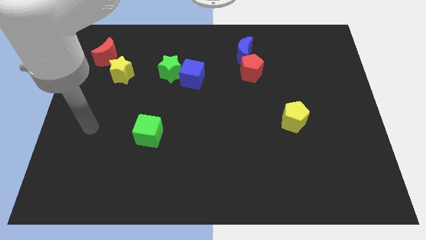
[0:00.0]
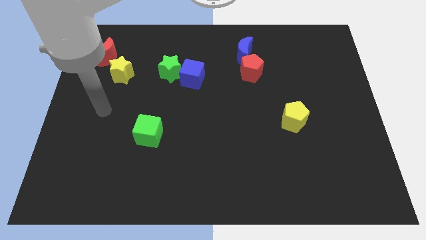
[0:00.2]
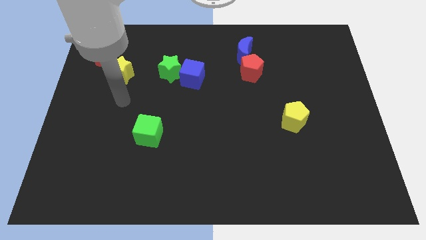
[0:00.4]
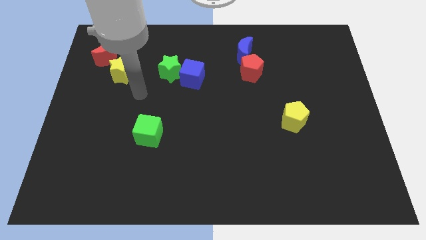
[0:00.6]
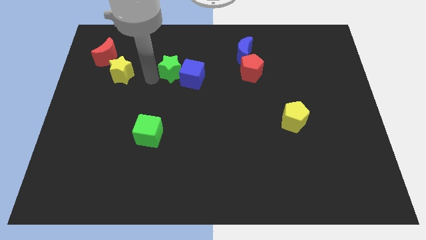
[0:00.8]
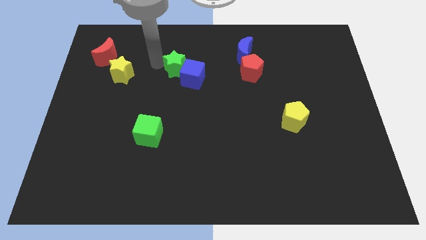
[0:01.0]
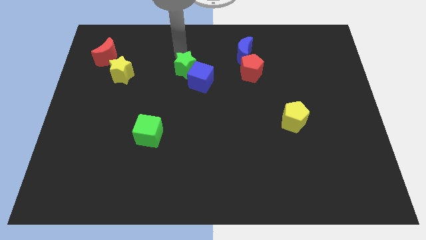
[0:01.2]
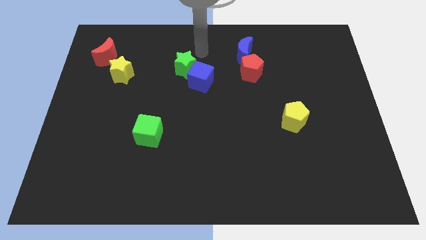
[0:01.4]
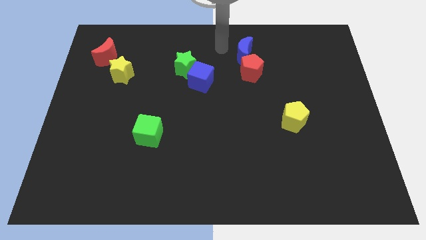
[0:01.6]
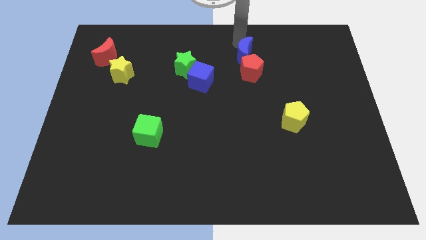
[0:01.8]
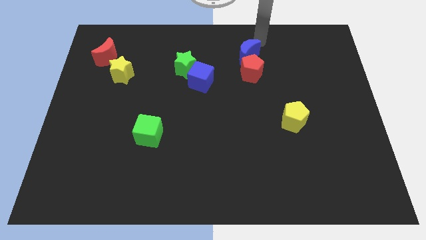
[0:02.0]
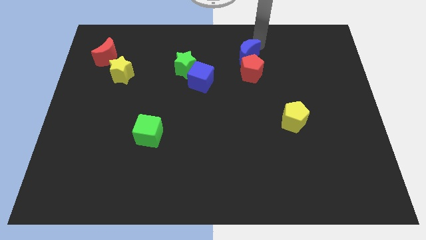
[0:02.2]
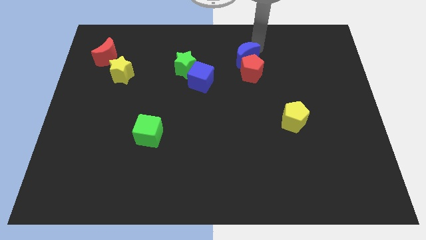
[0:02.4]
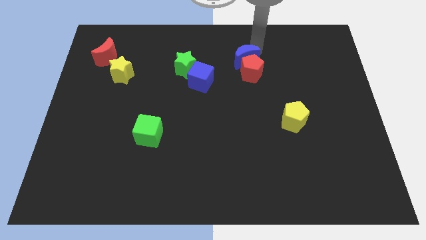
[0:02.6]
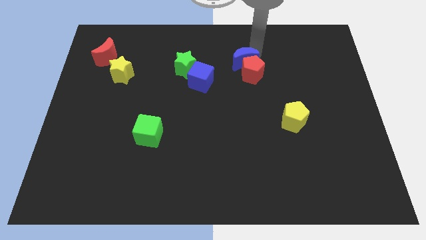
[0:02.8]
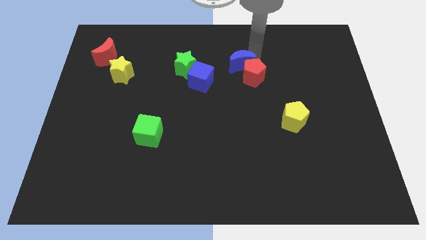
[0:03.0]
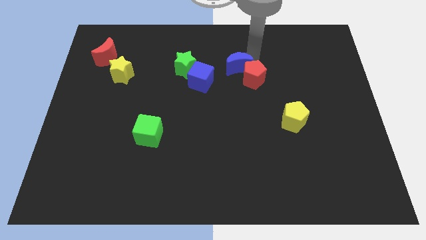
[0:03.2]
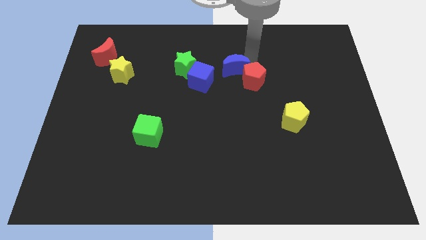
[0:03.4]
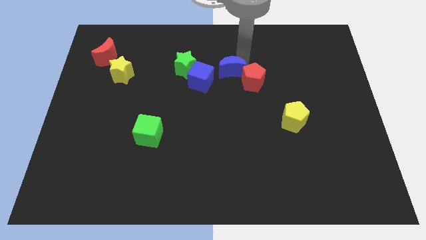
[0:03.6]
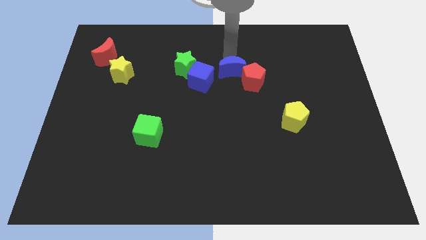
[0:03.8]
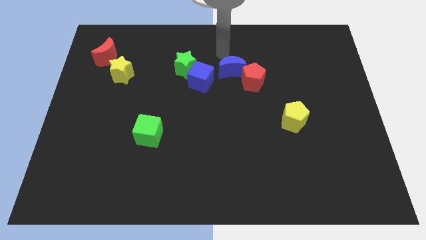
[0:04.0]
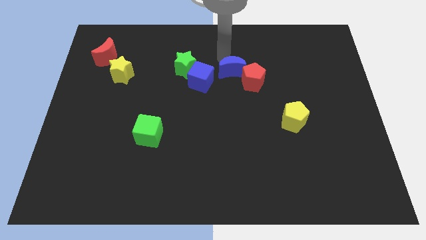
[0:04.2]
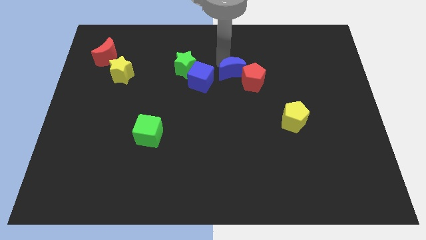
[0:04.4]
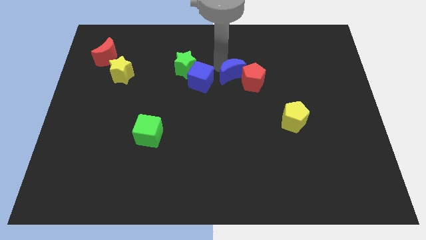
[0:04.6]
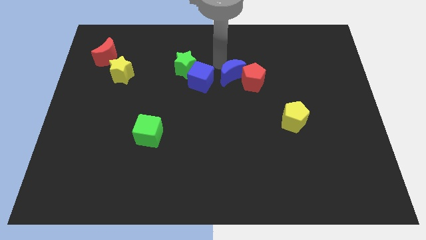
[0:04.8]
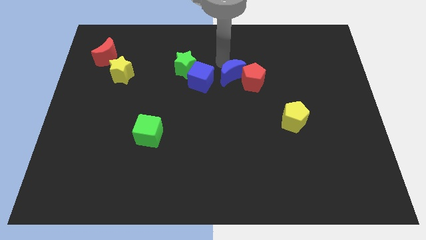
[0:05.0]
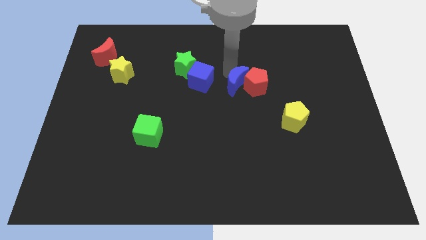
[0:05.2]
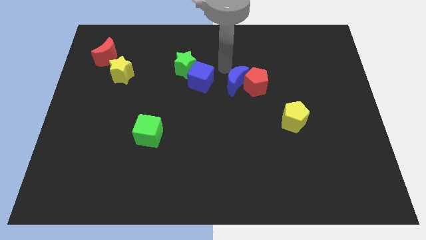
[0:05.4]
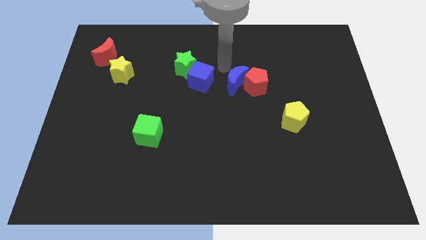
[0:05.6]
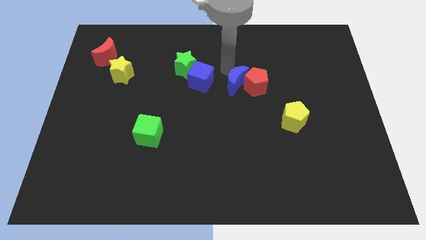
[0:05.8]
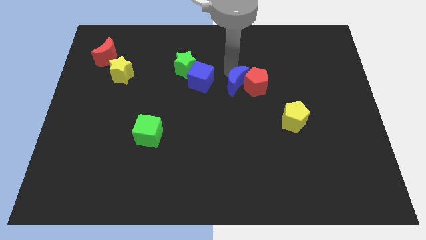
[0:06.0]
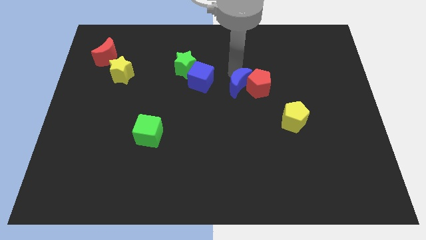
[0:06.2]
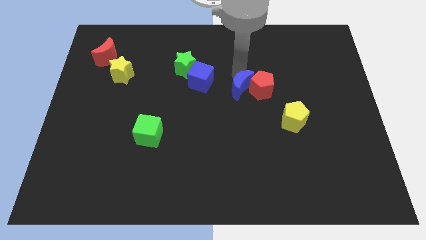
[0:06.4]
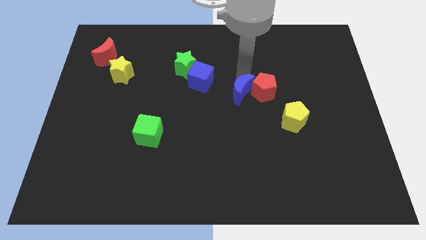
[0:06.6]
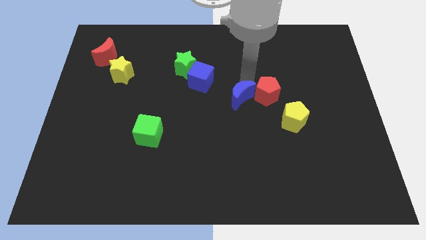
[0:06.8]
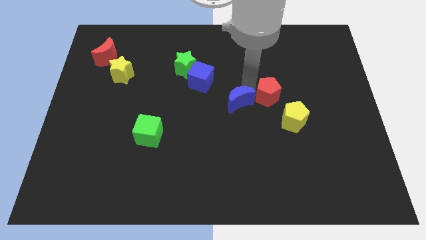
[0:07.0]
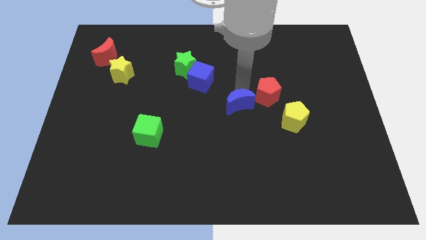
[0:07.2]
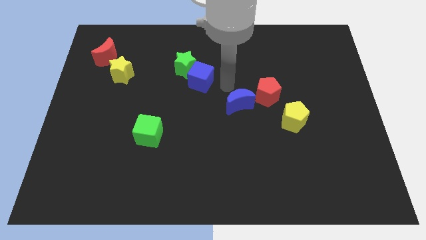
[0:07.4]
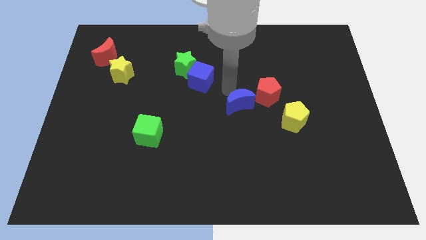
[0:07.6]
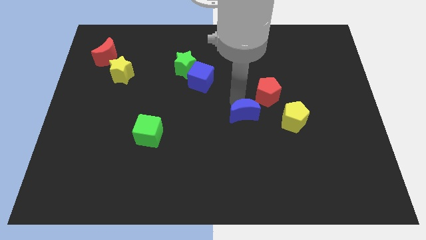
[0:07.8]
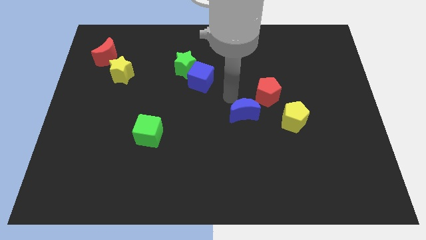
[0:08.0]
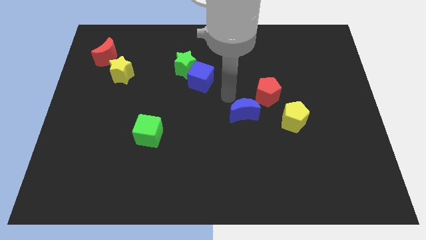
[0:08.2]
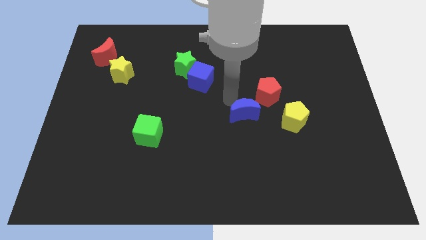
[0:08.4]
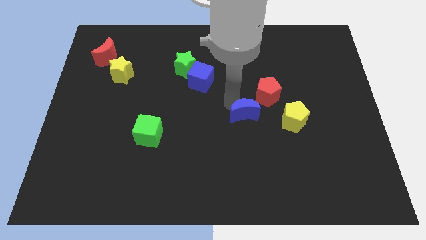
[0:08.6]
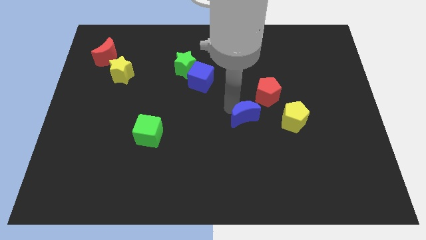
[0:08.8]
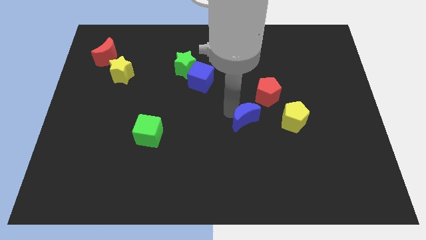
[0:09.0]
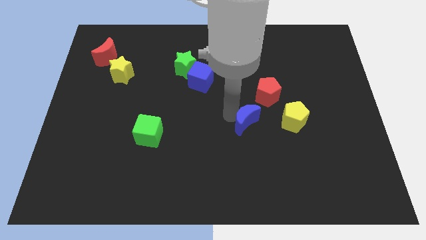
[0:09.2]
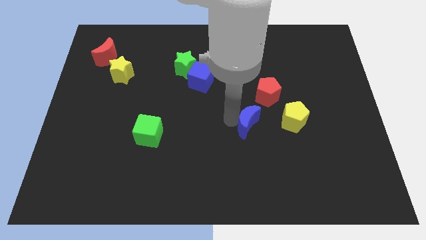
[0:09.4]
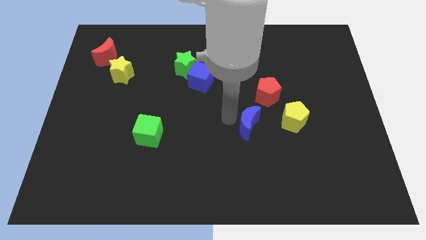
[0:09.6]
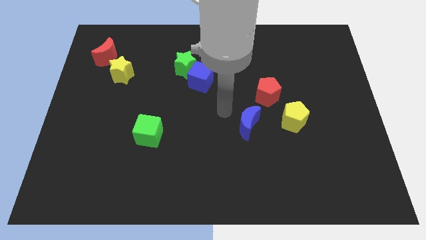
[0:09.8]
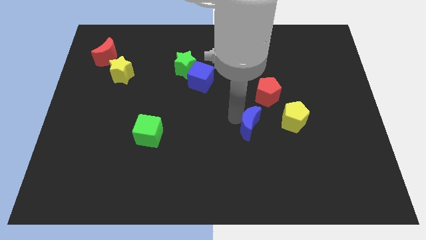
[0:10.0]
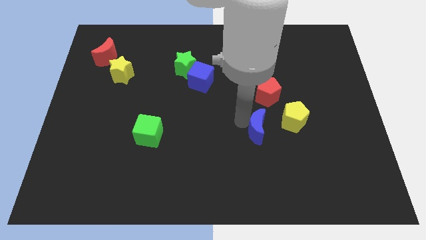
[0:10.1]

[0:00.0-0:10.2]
move the blue moon diagonally down and to the left of the yellow pentagon

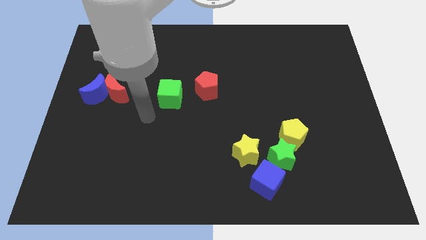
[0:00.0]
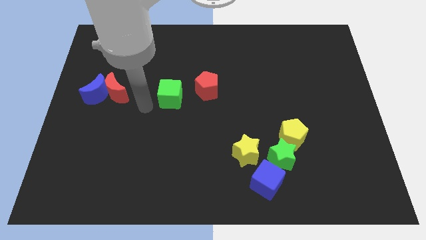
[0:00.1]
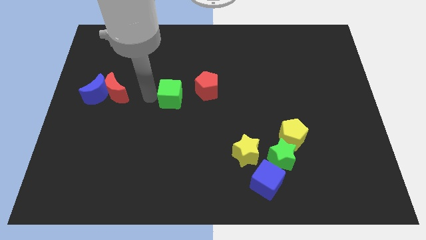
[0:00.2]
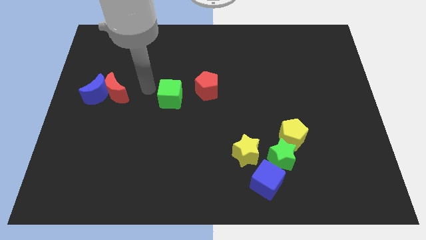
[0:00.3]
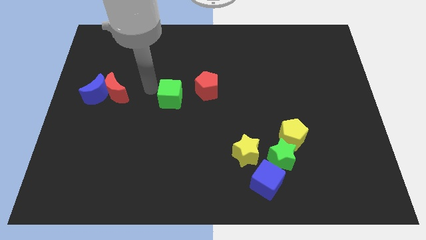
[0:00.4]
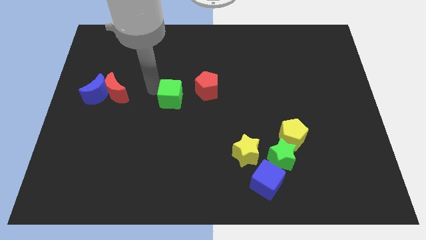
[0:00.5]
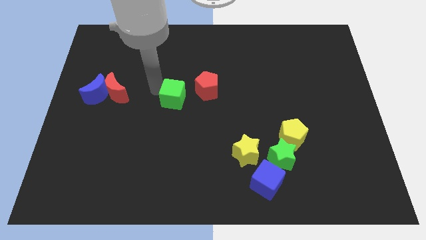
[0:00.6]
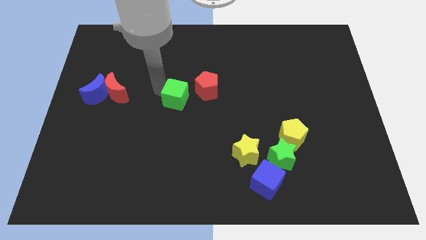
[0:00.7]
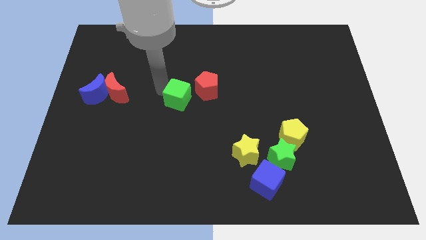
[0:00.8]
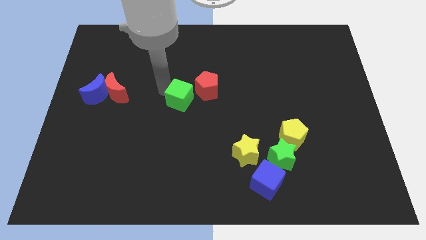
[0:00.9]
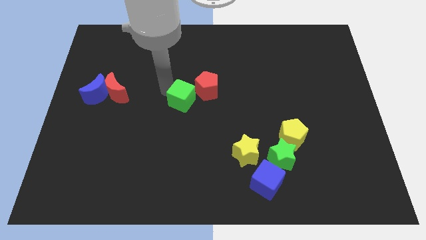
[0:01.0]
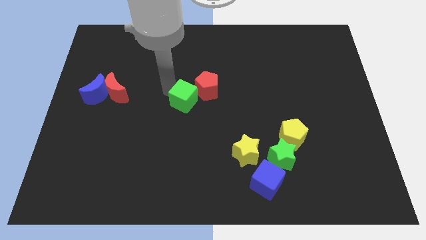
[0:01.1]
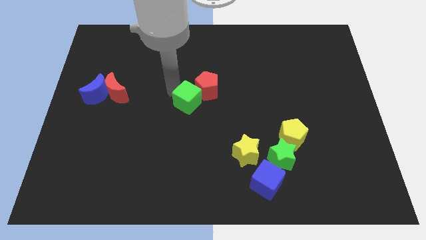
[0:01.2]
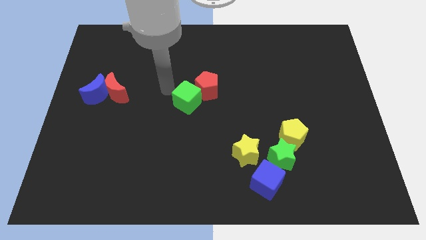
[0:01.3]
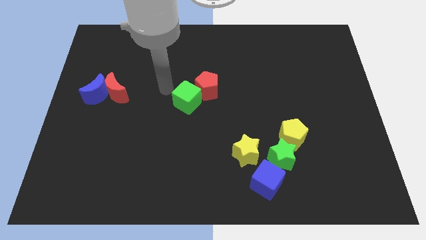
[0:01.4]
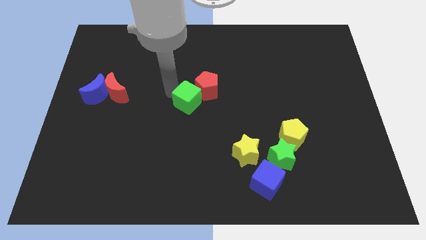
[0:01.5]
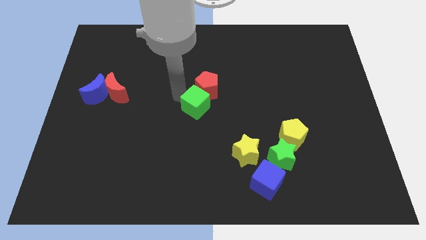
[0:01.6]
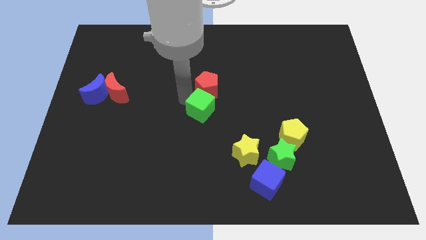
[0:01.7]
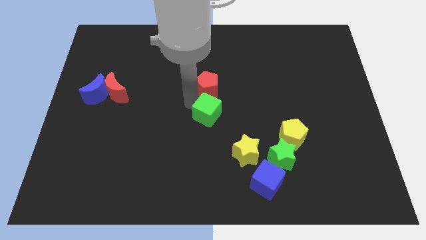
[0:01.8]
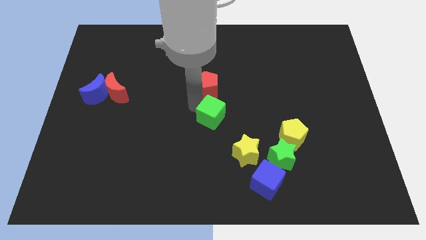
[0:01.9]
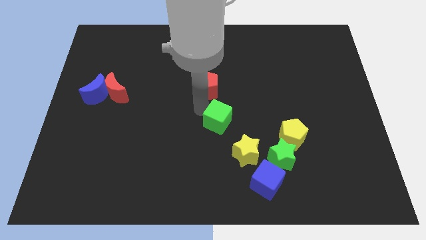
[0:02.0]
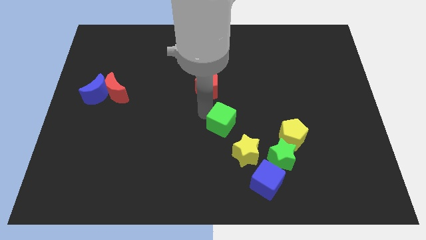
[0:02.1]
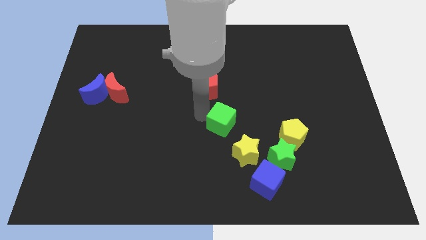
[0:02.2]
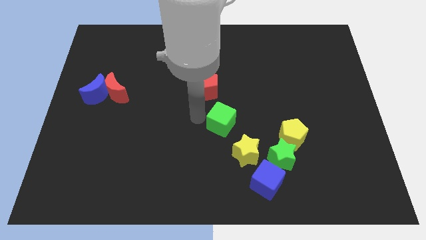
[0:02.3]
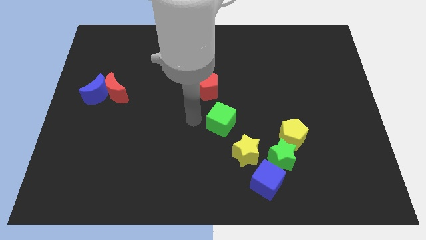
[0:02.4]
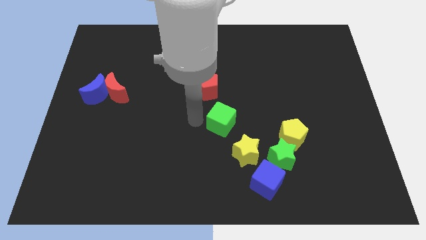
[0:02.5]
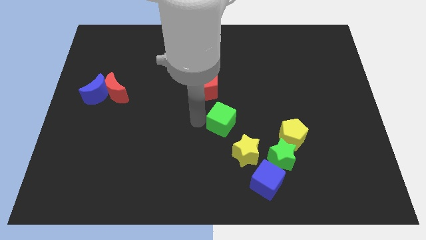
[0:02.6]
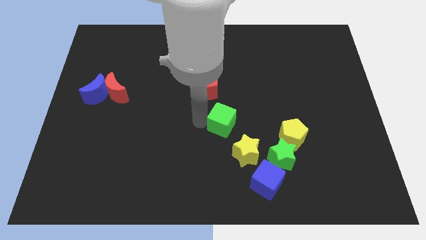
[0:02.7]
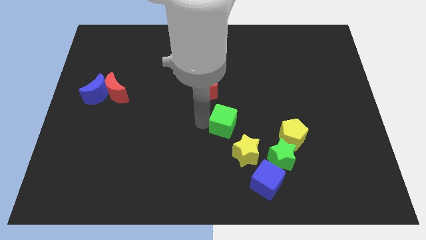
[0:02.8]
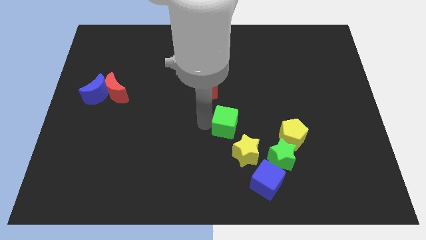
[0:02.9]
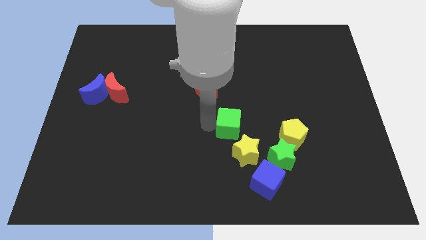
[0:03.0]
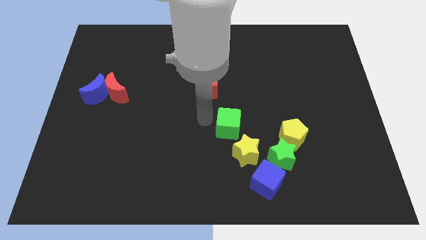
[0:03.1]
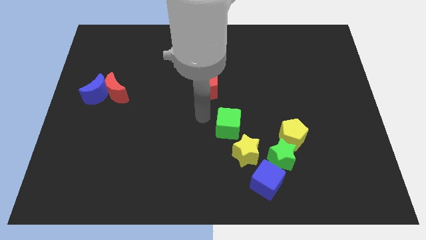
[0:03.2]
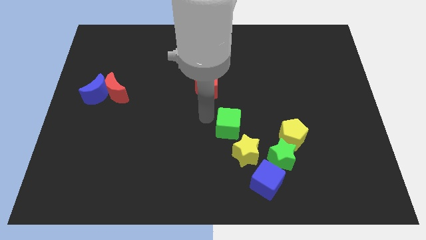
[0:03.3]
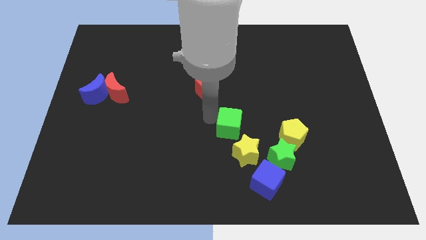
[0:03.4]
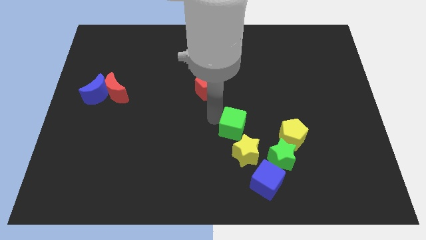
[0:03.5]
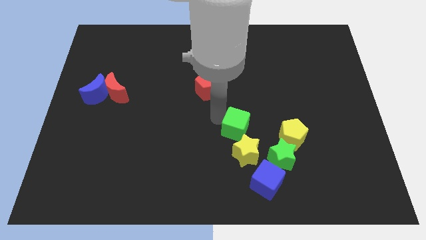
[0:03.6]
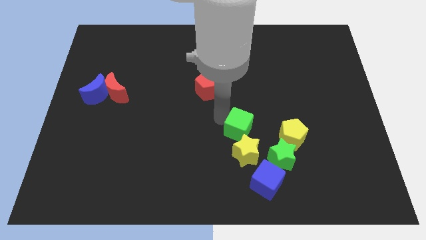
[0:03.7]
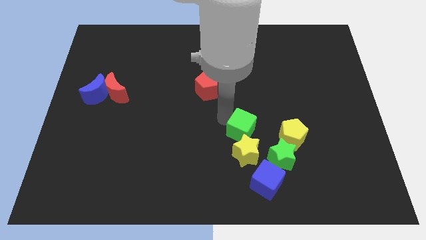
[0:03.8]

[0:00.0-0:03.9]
put the green cube above the blue cube
